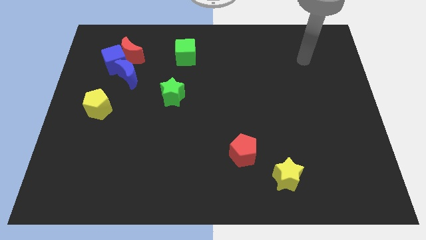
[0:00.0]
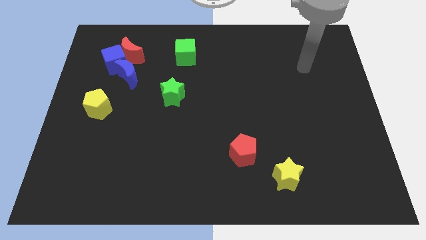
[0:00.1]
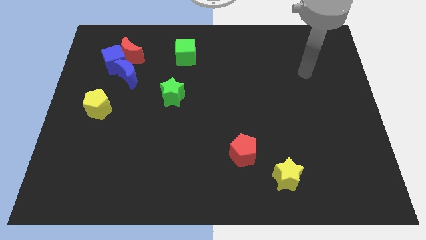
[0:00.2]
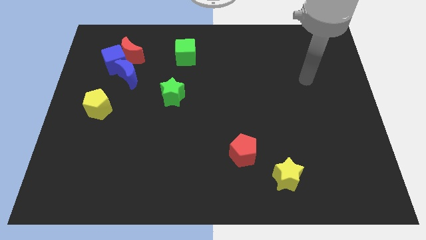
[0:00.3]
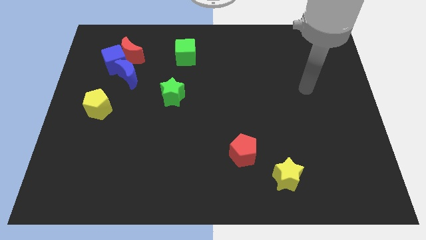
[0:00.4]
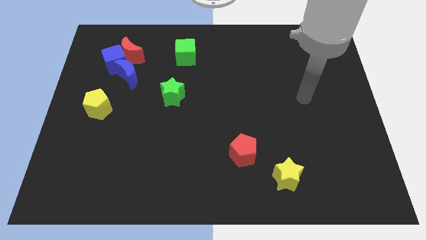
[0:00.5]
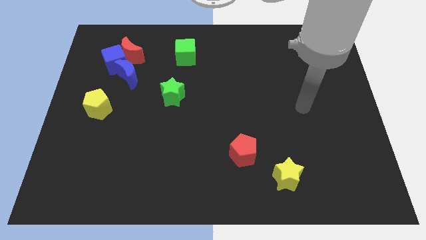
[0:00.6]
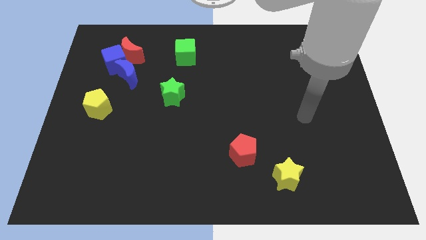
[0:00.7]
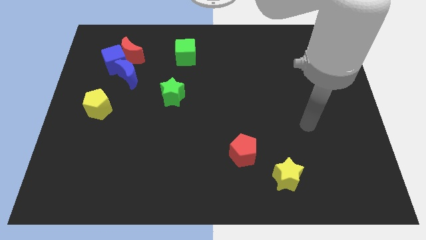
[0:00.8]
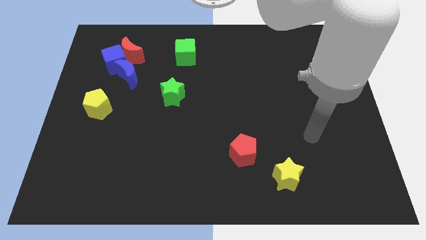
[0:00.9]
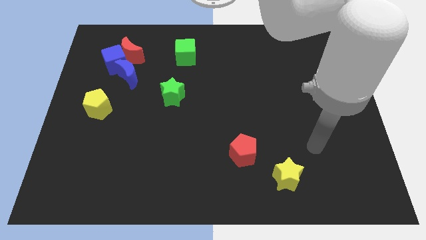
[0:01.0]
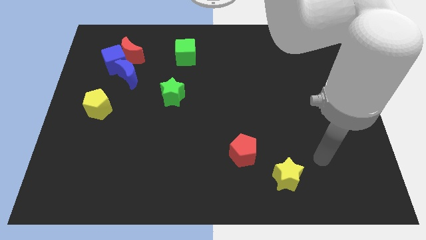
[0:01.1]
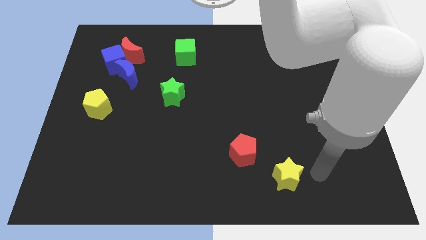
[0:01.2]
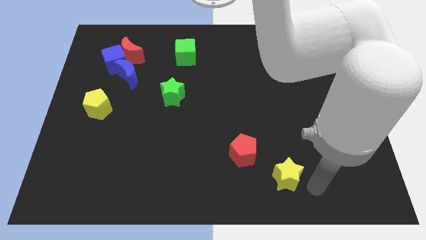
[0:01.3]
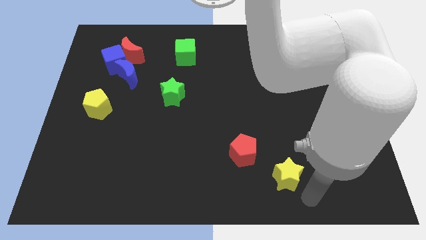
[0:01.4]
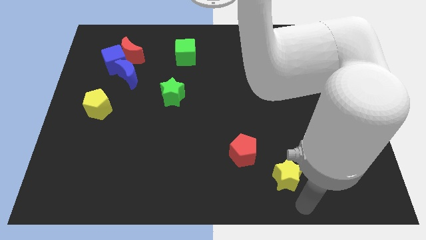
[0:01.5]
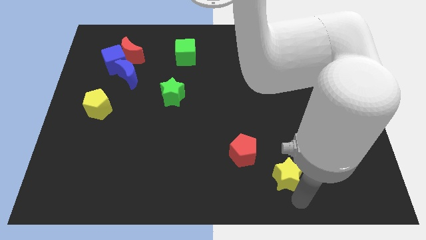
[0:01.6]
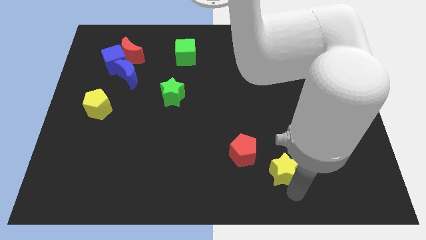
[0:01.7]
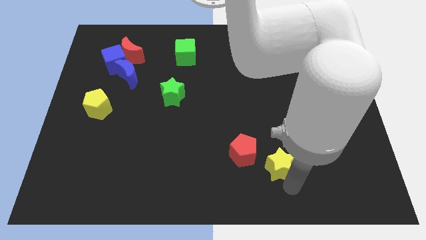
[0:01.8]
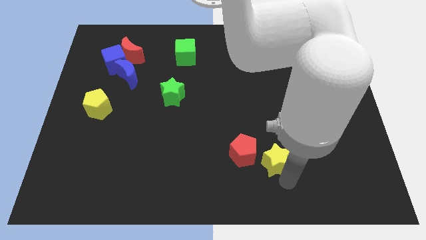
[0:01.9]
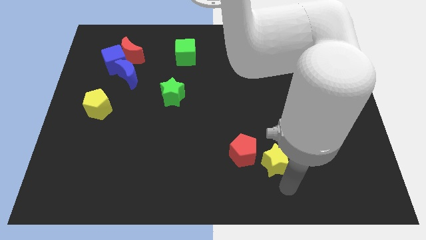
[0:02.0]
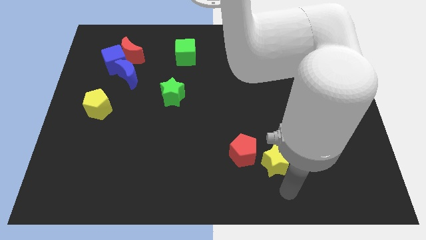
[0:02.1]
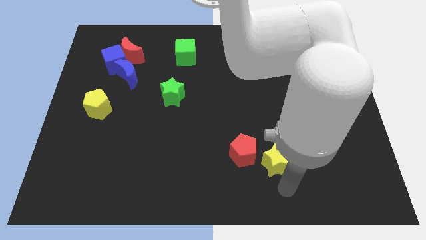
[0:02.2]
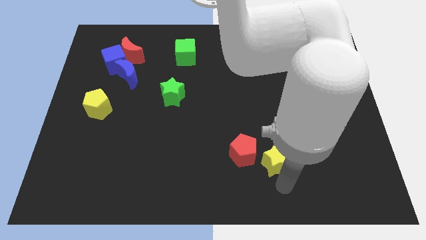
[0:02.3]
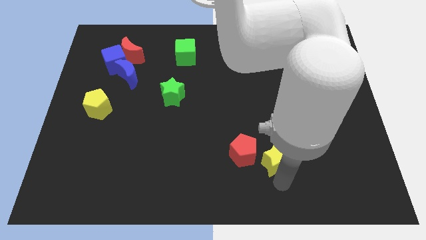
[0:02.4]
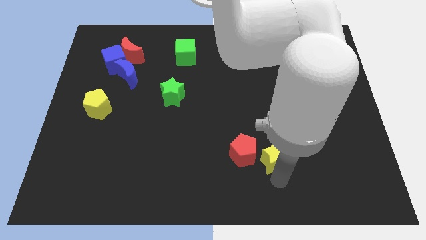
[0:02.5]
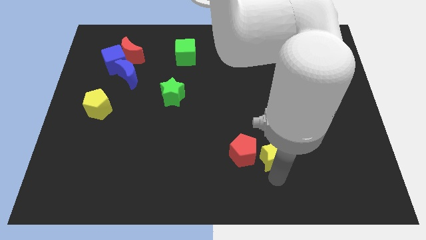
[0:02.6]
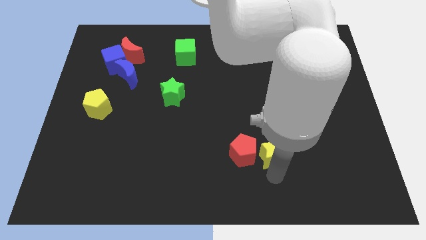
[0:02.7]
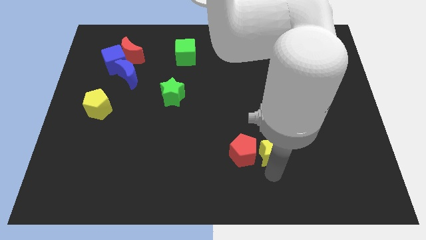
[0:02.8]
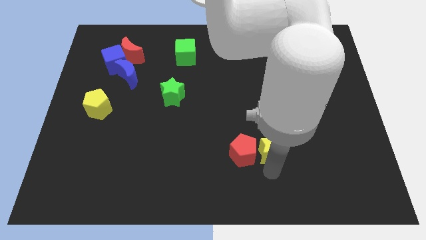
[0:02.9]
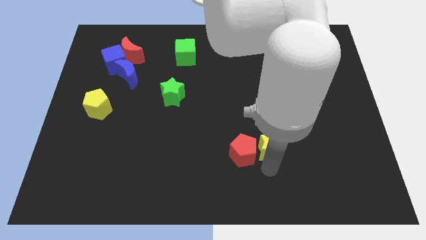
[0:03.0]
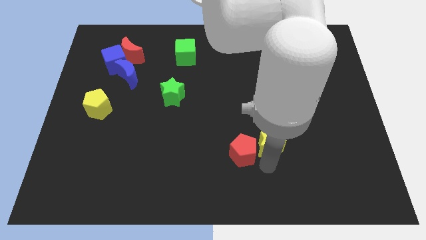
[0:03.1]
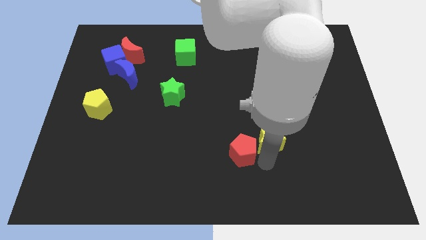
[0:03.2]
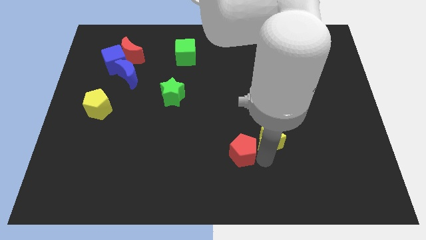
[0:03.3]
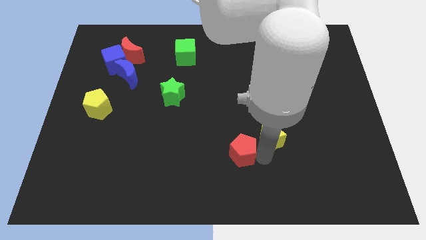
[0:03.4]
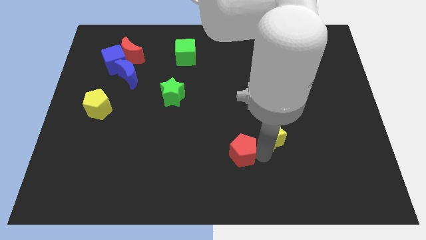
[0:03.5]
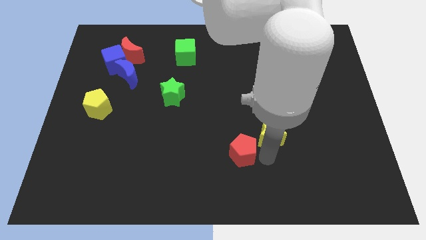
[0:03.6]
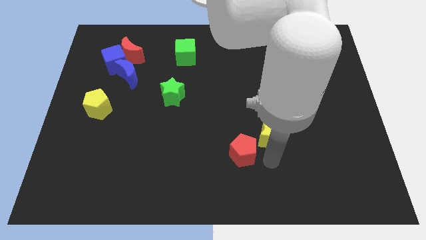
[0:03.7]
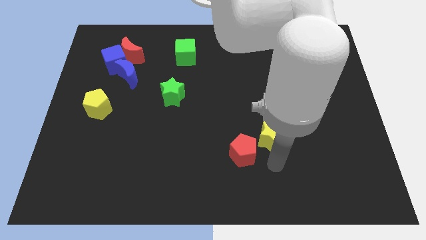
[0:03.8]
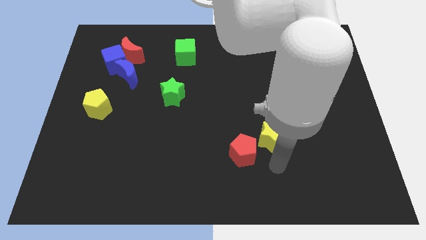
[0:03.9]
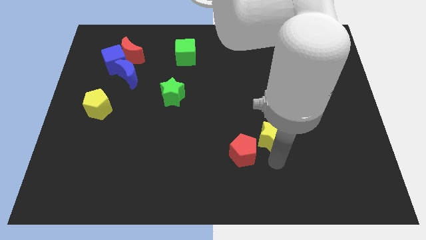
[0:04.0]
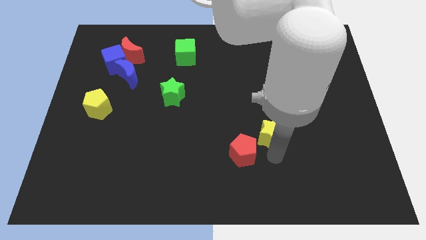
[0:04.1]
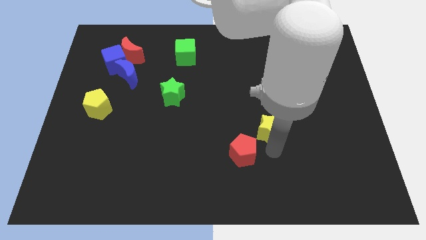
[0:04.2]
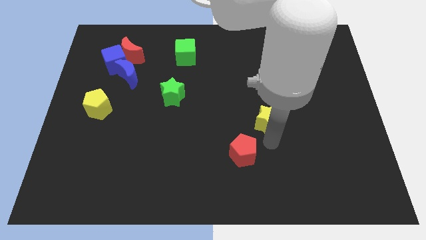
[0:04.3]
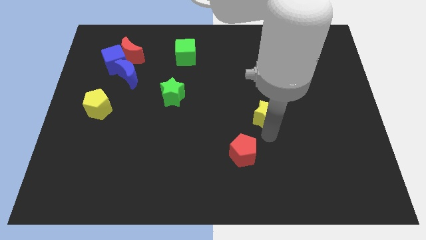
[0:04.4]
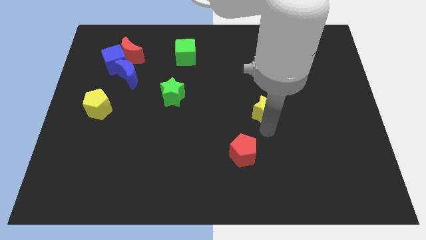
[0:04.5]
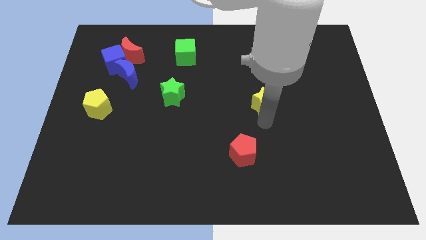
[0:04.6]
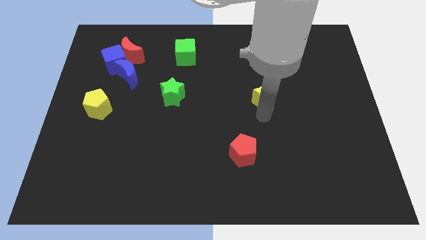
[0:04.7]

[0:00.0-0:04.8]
move the yellow star up

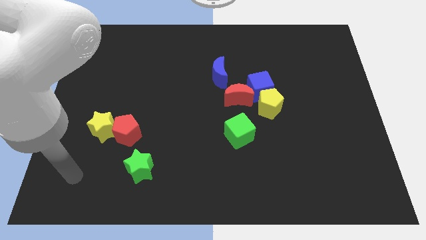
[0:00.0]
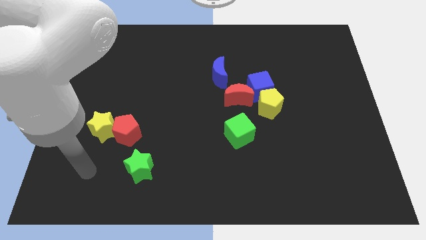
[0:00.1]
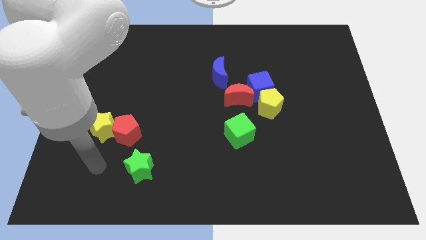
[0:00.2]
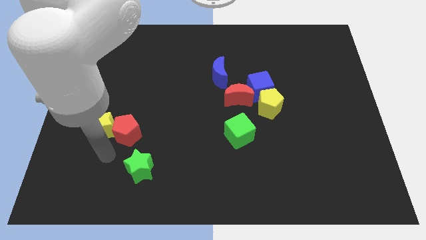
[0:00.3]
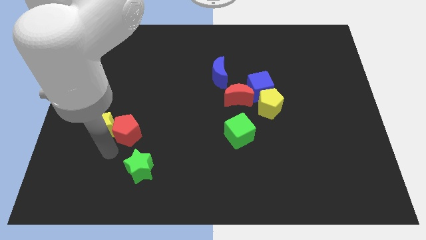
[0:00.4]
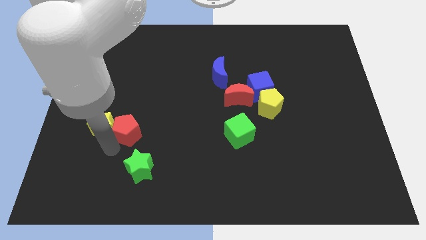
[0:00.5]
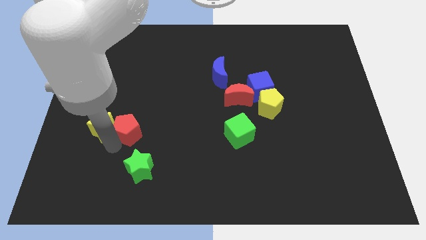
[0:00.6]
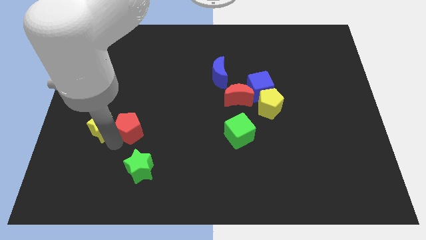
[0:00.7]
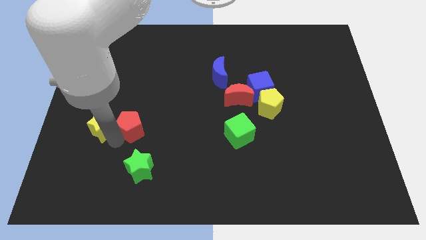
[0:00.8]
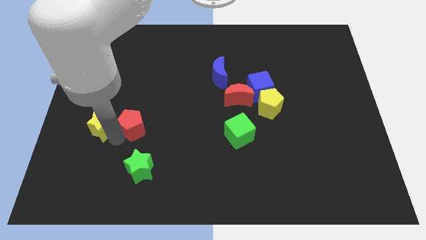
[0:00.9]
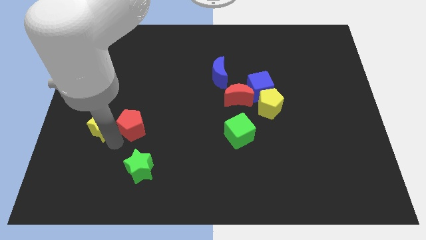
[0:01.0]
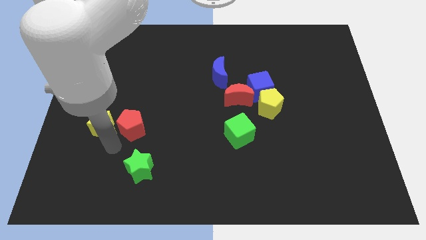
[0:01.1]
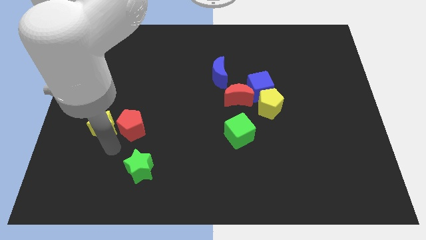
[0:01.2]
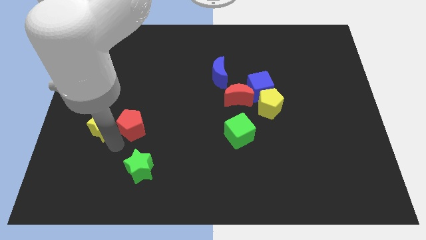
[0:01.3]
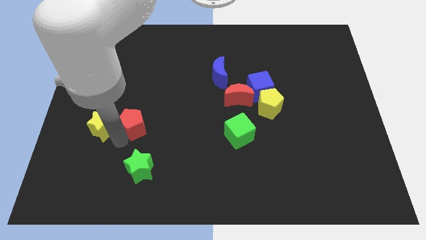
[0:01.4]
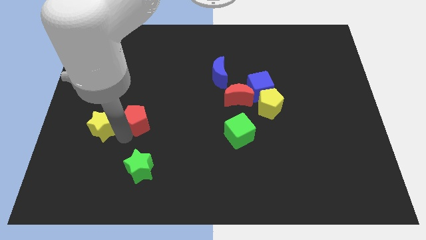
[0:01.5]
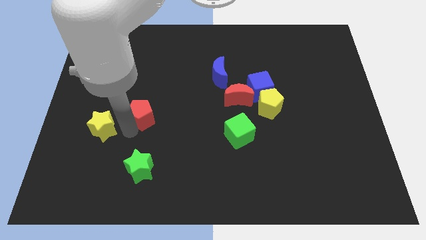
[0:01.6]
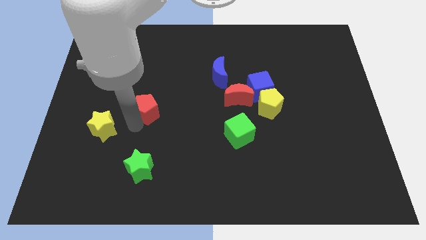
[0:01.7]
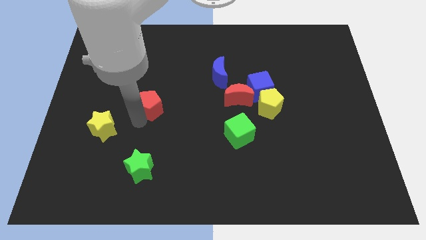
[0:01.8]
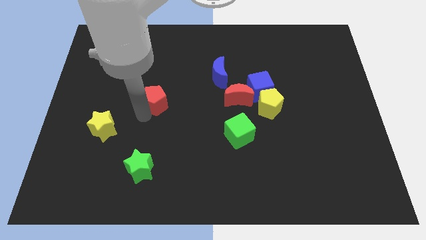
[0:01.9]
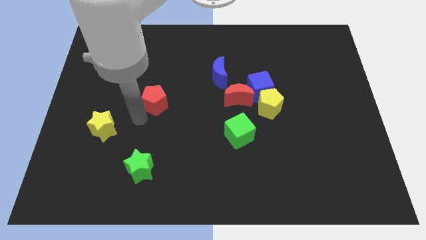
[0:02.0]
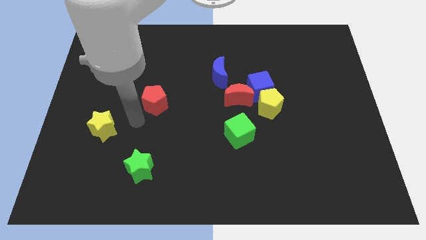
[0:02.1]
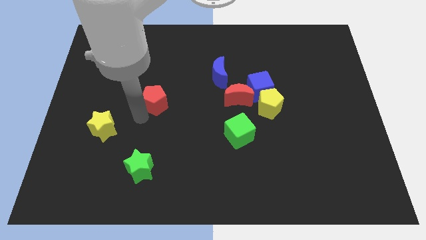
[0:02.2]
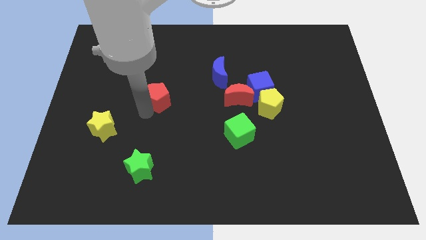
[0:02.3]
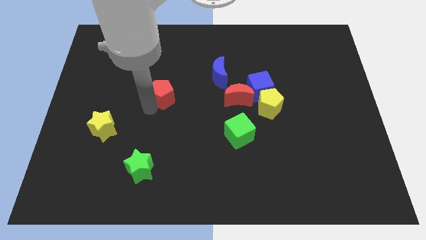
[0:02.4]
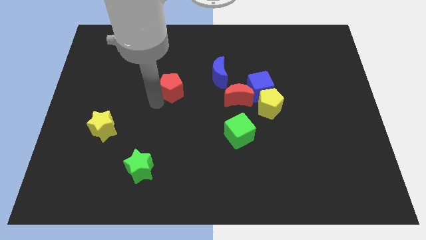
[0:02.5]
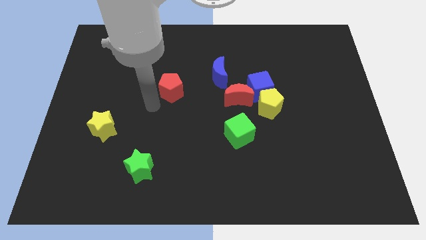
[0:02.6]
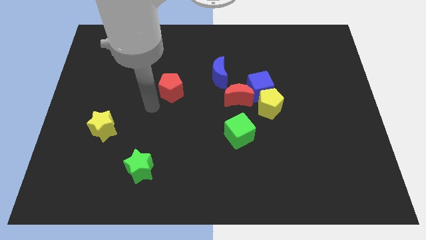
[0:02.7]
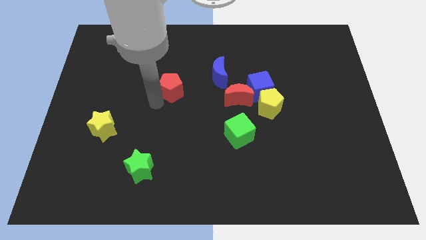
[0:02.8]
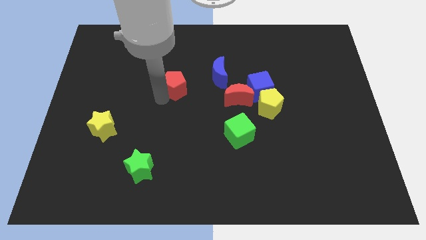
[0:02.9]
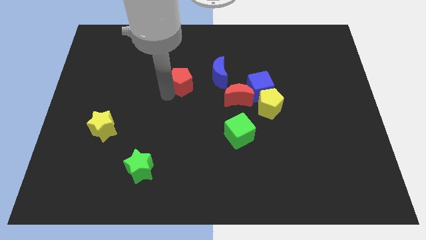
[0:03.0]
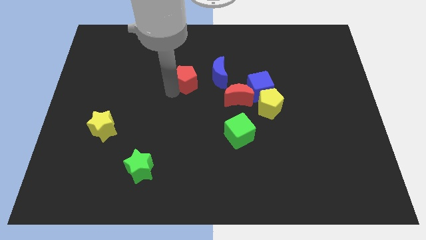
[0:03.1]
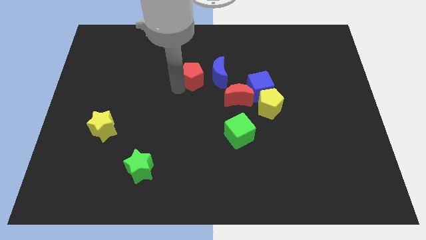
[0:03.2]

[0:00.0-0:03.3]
move the red pentagon up and right diagonally
